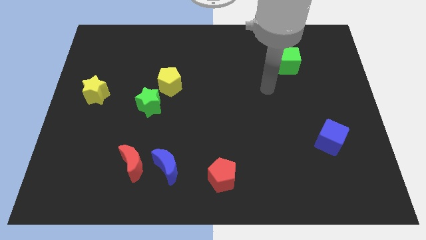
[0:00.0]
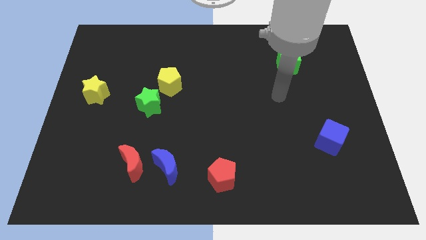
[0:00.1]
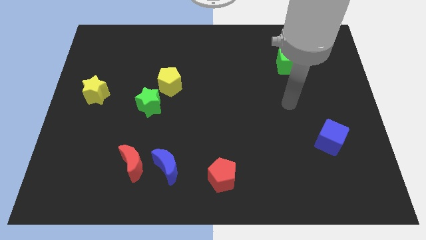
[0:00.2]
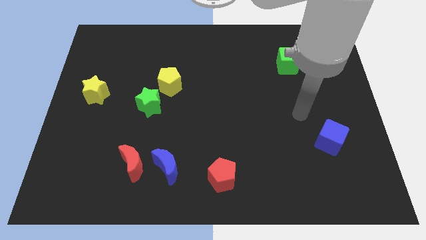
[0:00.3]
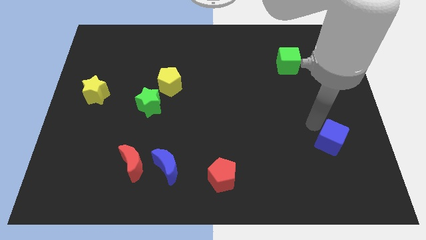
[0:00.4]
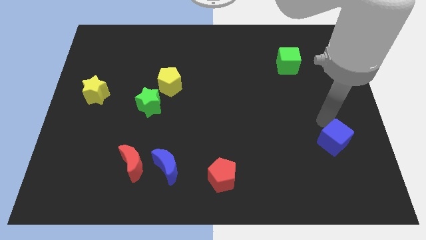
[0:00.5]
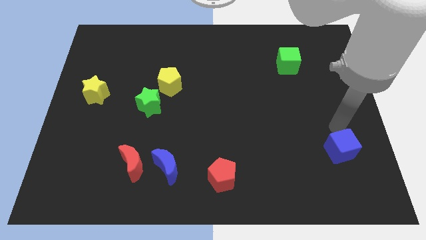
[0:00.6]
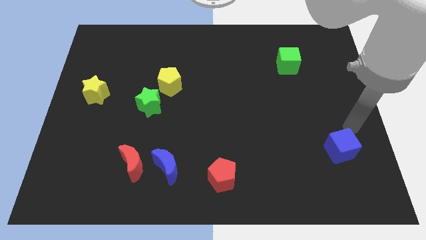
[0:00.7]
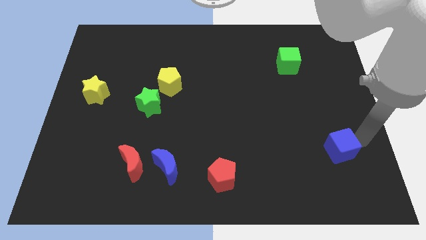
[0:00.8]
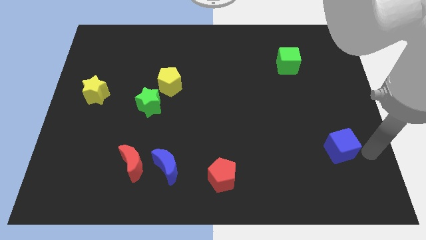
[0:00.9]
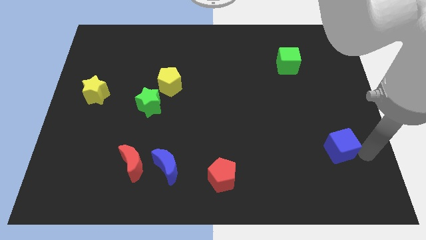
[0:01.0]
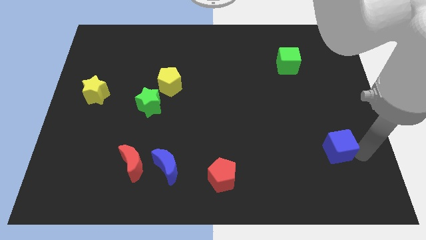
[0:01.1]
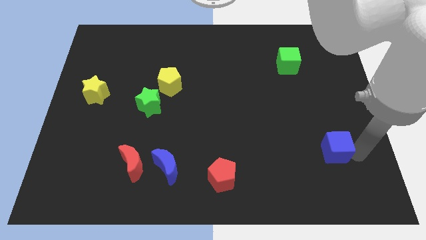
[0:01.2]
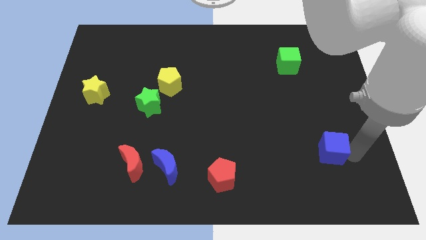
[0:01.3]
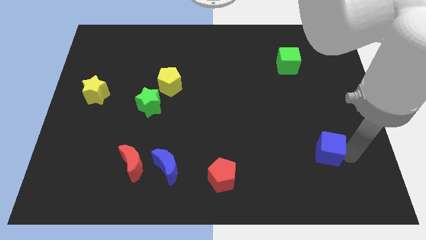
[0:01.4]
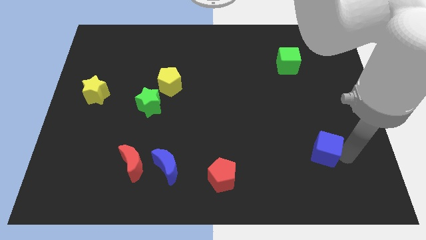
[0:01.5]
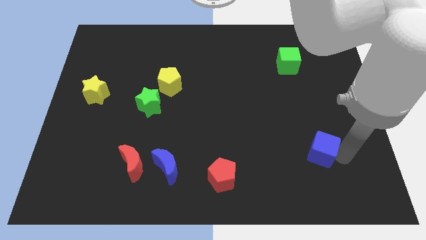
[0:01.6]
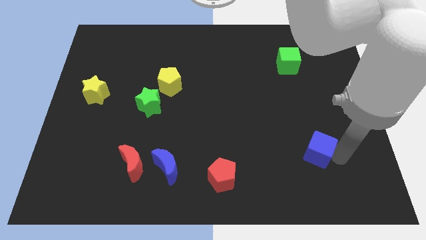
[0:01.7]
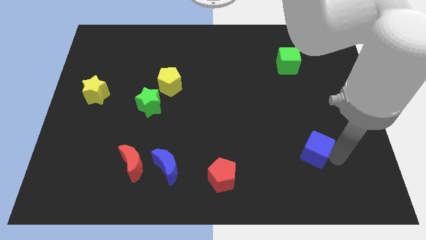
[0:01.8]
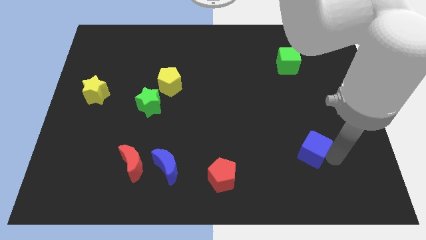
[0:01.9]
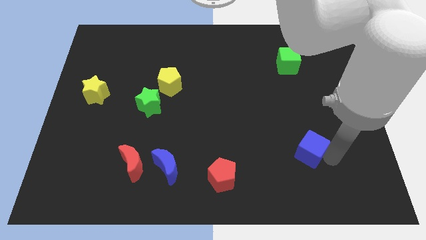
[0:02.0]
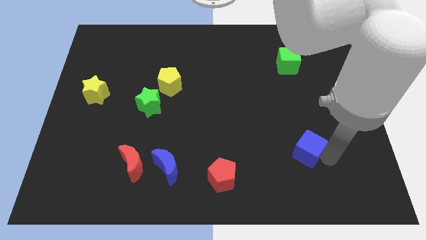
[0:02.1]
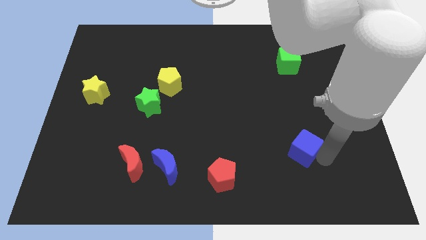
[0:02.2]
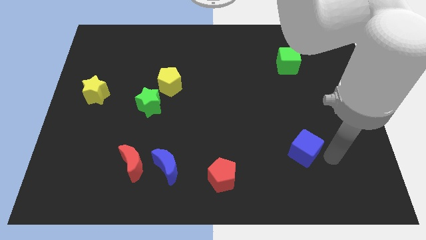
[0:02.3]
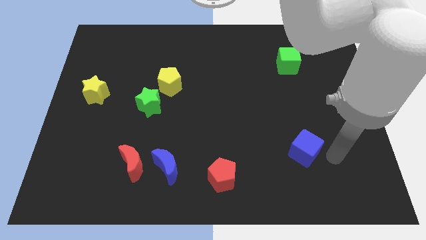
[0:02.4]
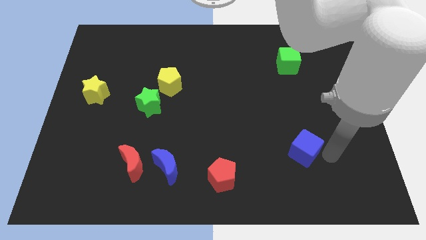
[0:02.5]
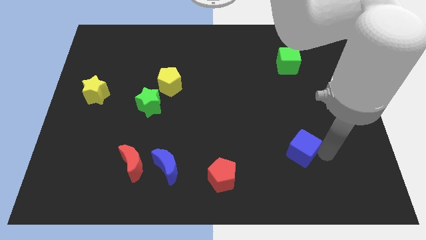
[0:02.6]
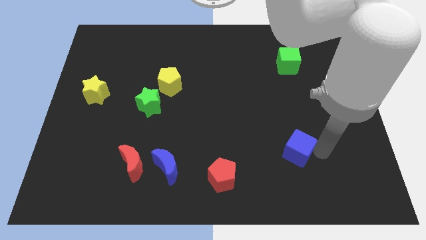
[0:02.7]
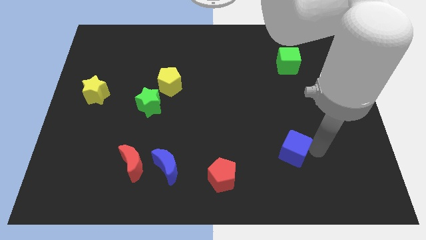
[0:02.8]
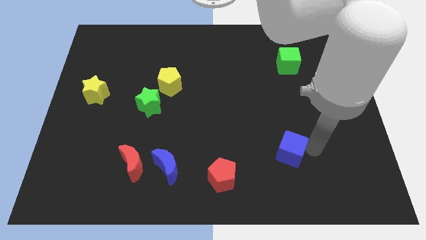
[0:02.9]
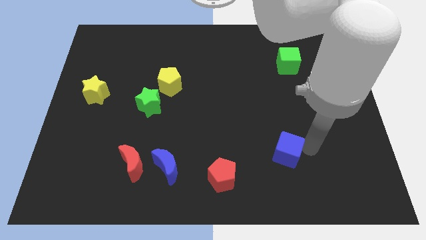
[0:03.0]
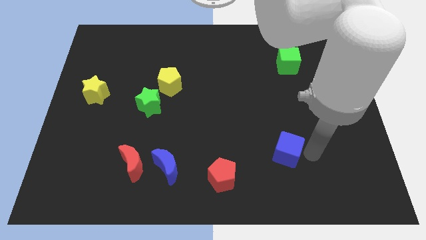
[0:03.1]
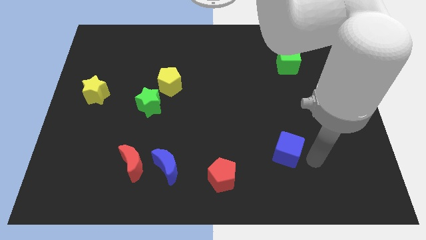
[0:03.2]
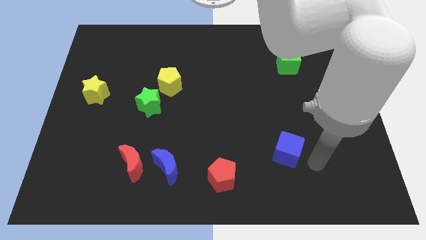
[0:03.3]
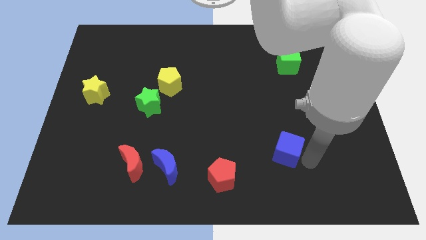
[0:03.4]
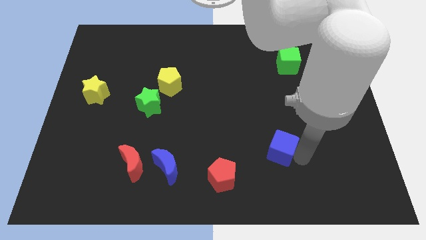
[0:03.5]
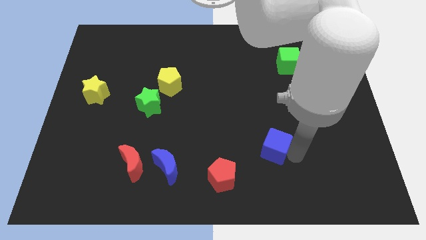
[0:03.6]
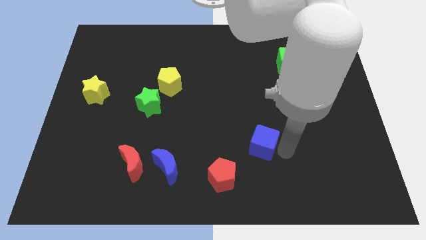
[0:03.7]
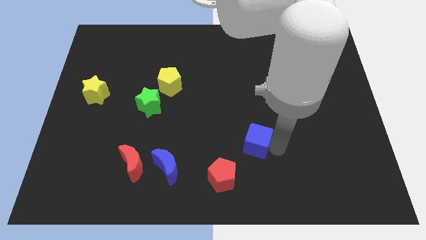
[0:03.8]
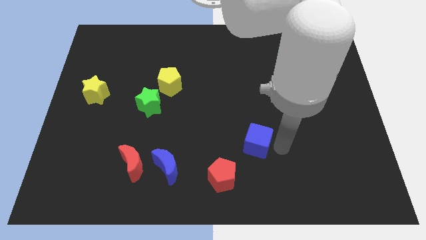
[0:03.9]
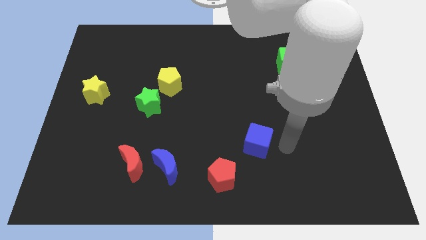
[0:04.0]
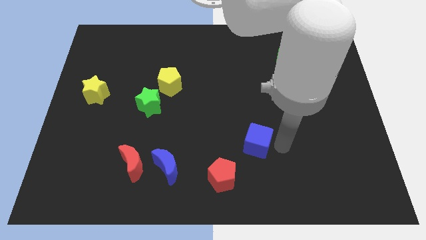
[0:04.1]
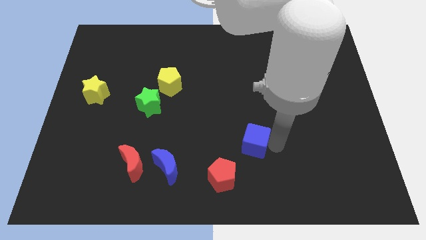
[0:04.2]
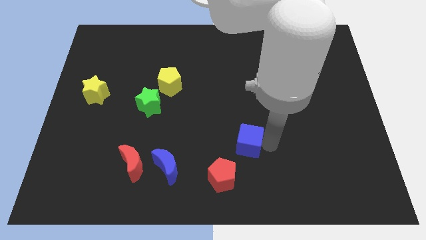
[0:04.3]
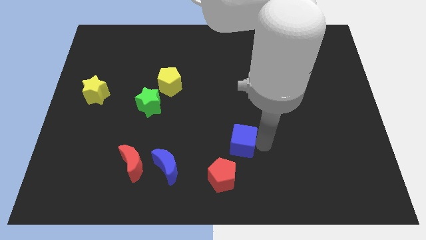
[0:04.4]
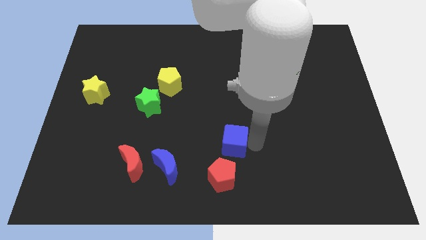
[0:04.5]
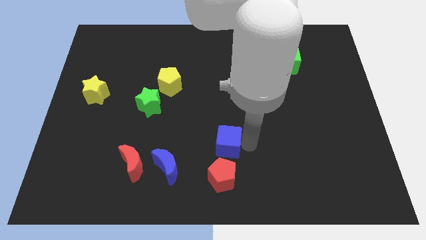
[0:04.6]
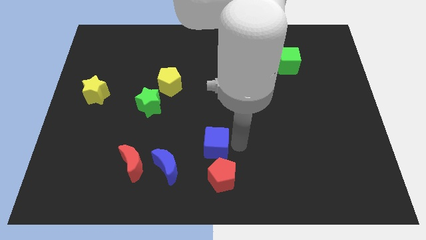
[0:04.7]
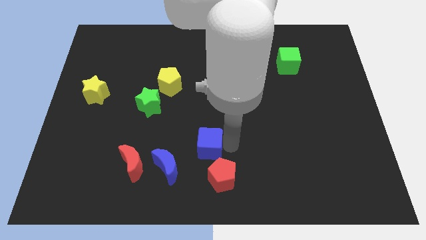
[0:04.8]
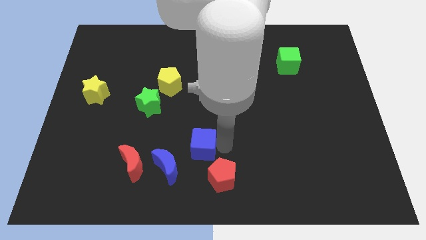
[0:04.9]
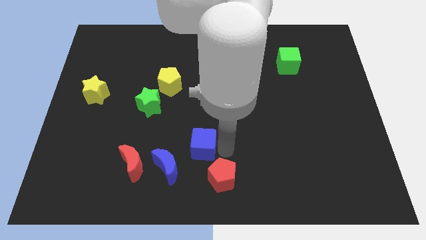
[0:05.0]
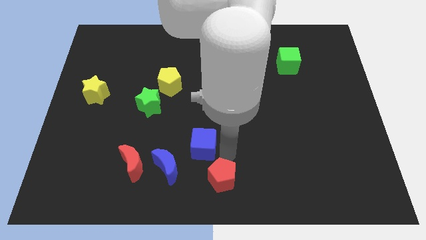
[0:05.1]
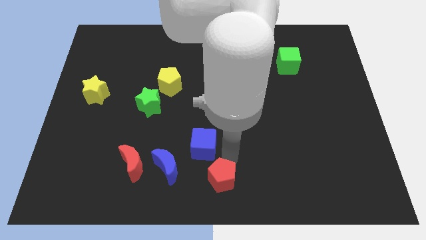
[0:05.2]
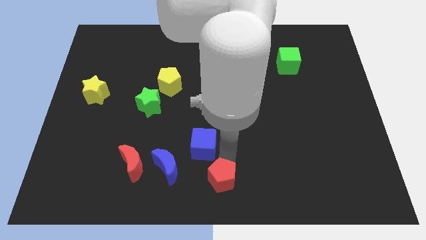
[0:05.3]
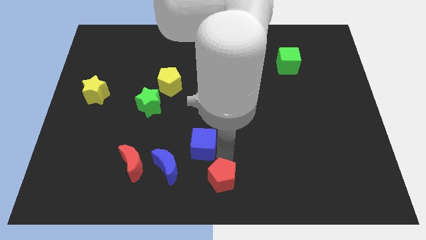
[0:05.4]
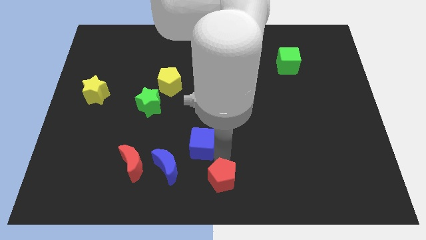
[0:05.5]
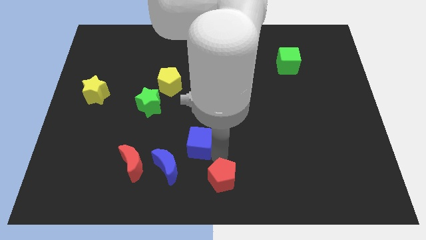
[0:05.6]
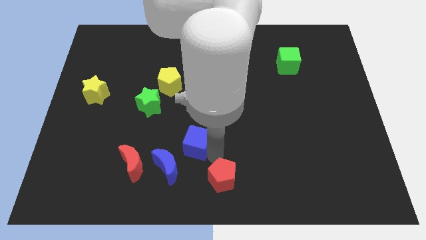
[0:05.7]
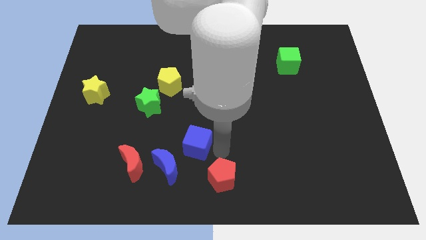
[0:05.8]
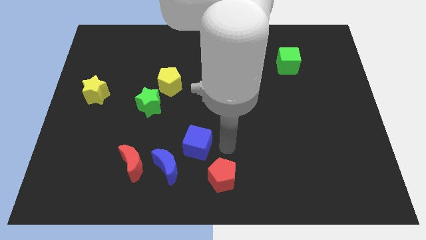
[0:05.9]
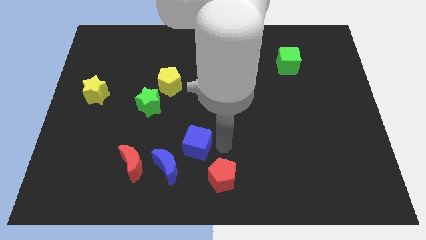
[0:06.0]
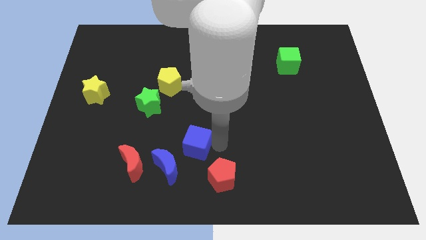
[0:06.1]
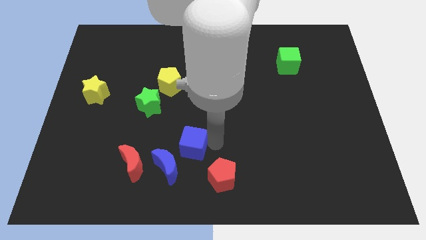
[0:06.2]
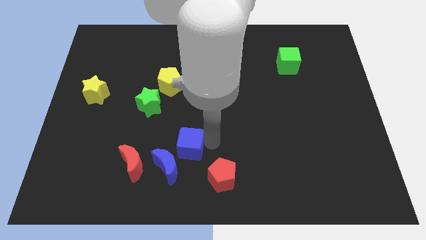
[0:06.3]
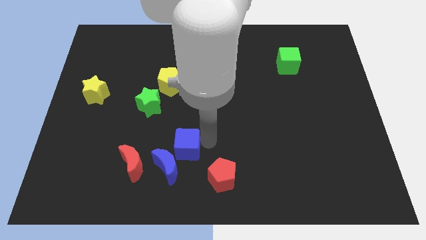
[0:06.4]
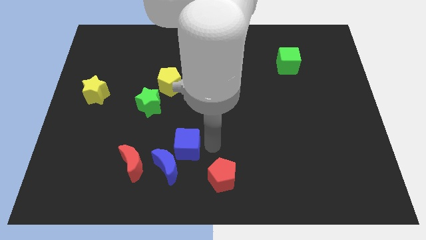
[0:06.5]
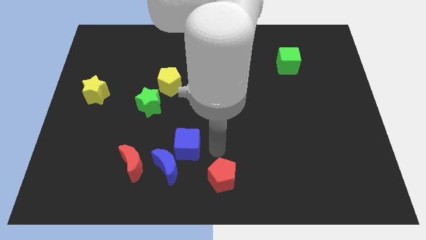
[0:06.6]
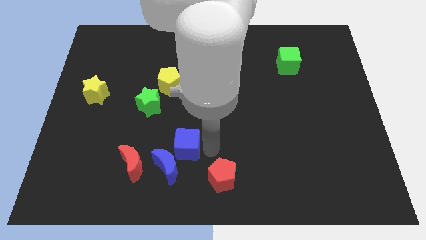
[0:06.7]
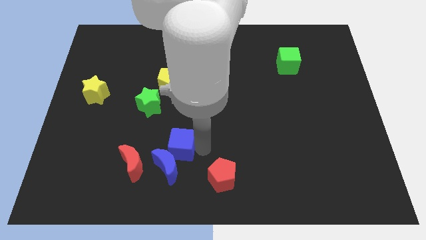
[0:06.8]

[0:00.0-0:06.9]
push the blue cube to the top right of the red moon
